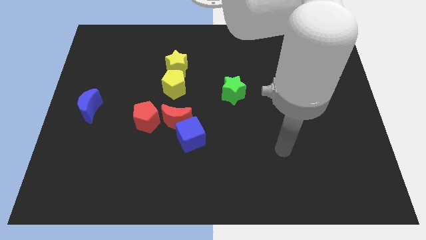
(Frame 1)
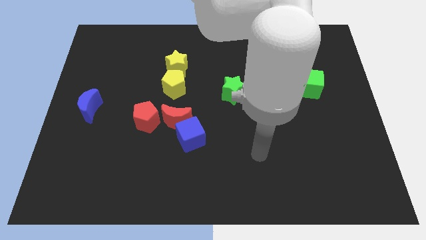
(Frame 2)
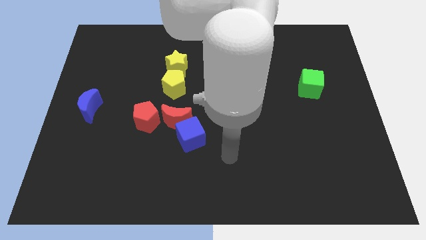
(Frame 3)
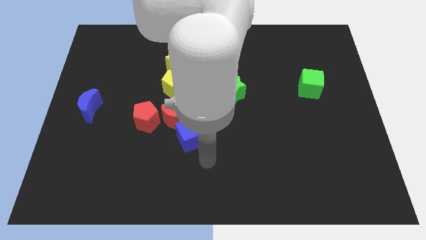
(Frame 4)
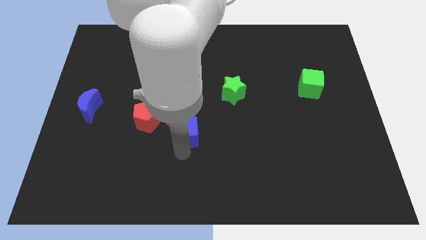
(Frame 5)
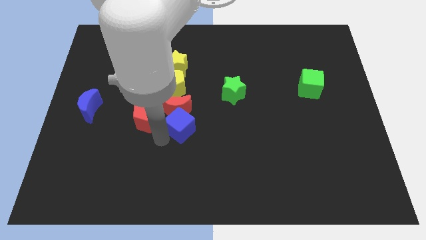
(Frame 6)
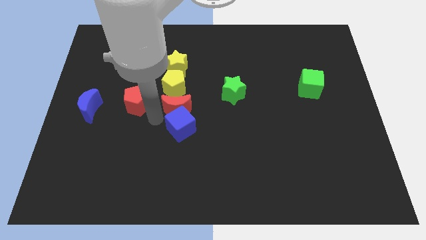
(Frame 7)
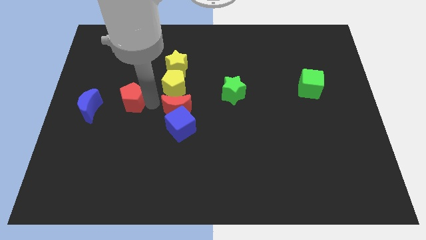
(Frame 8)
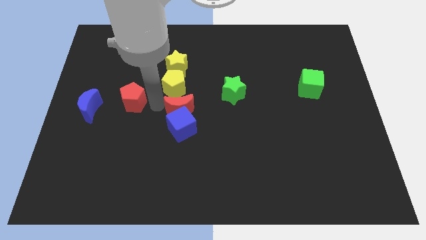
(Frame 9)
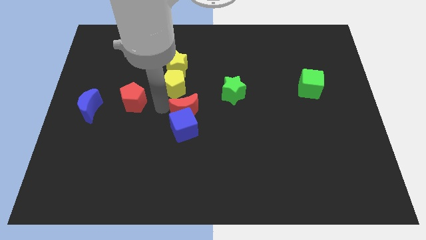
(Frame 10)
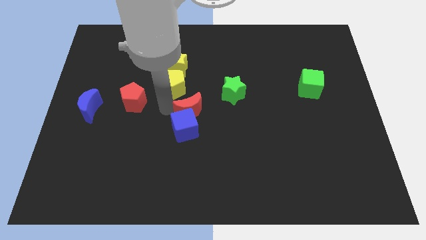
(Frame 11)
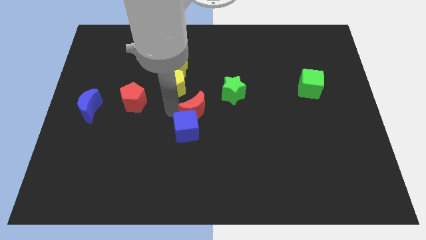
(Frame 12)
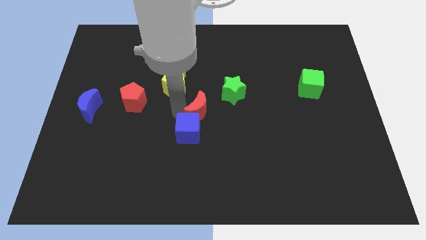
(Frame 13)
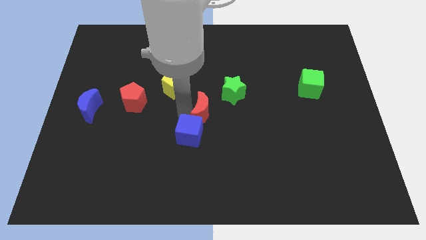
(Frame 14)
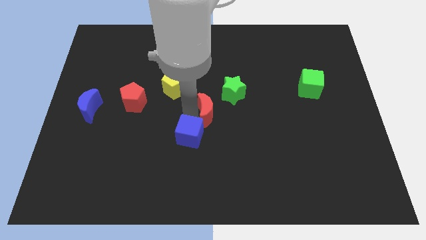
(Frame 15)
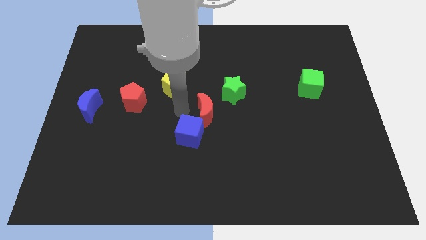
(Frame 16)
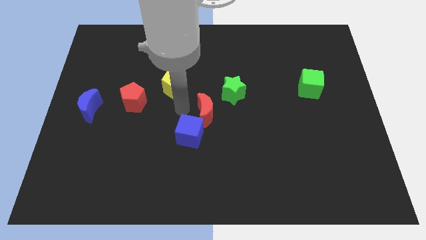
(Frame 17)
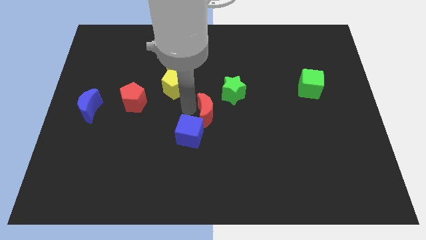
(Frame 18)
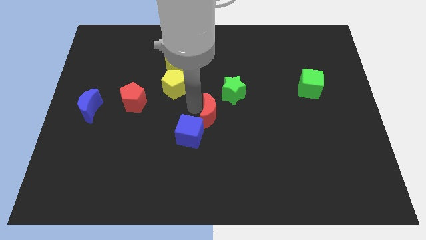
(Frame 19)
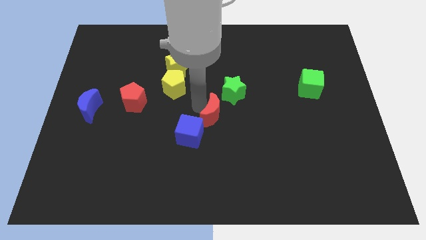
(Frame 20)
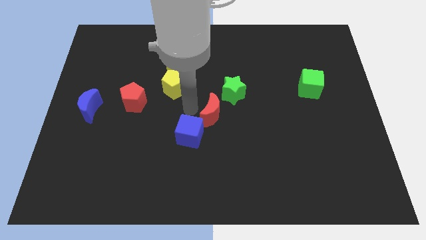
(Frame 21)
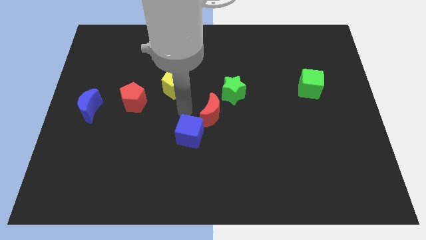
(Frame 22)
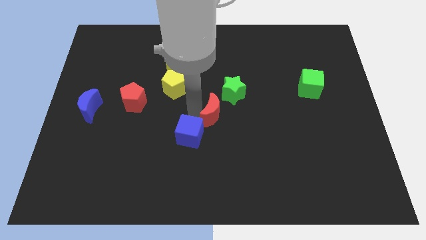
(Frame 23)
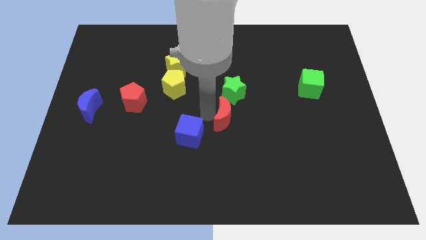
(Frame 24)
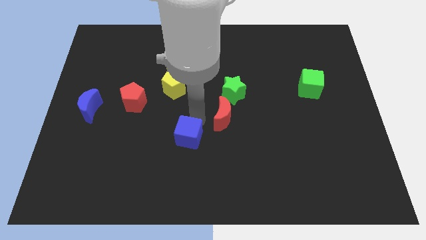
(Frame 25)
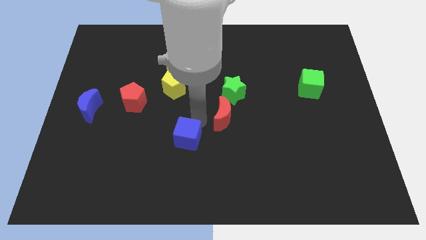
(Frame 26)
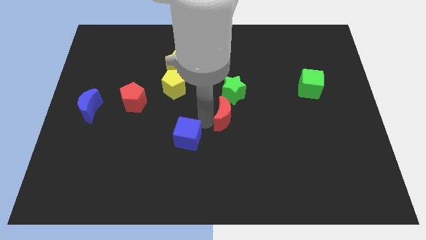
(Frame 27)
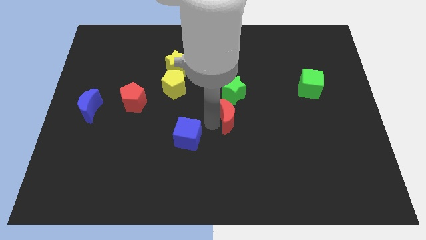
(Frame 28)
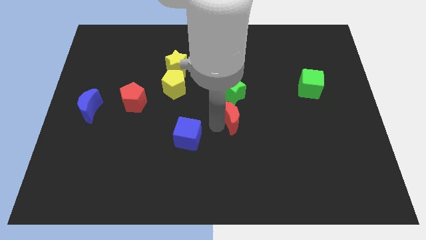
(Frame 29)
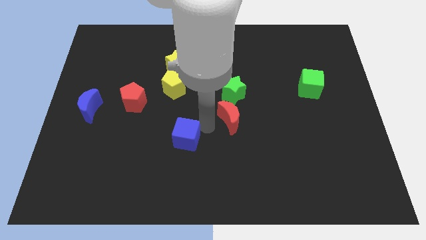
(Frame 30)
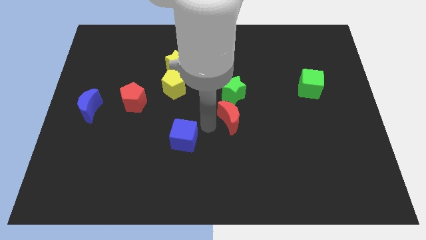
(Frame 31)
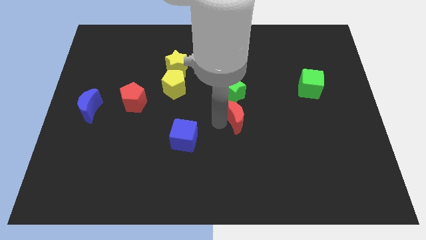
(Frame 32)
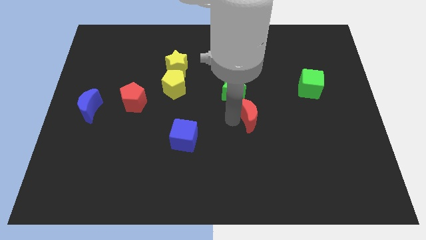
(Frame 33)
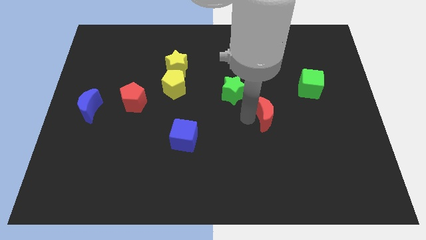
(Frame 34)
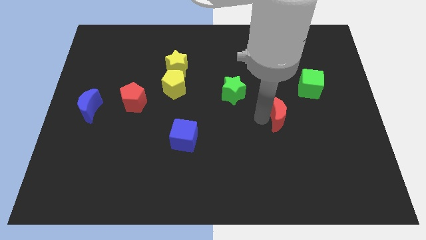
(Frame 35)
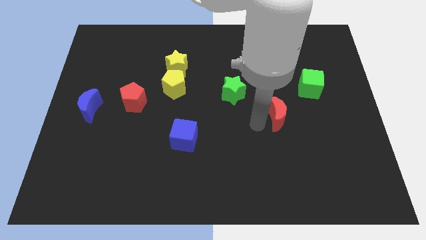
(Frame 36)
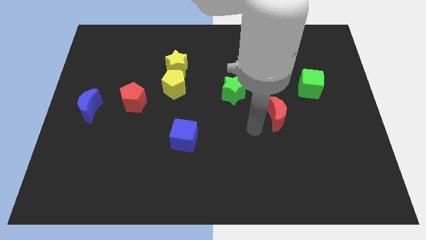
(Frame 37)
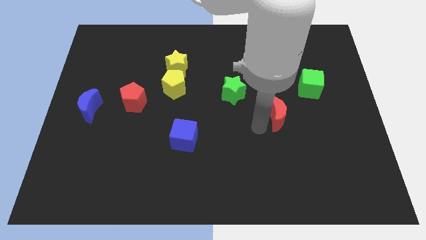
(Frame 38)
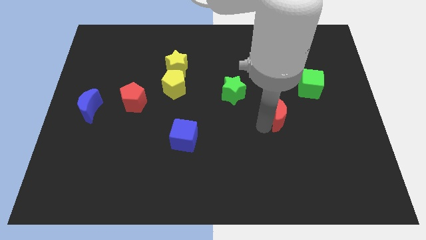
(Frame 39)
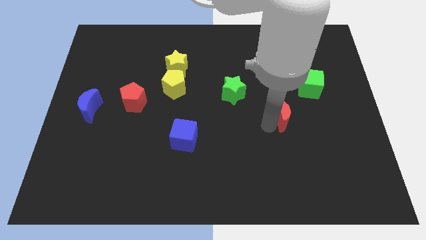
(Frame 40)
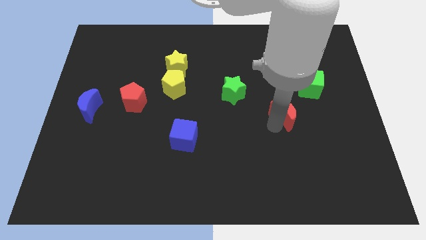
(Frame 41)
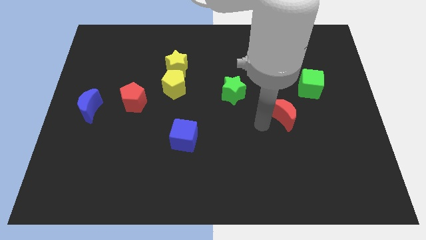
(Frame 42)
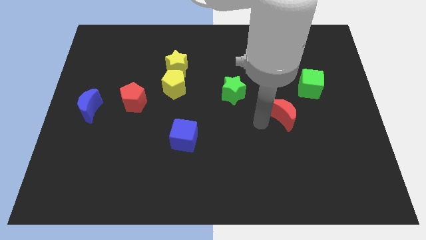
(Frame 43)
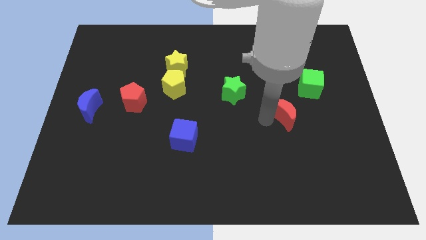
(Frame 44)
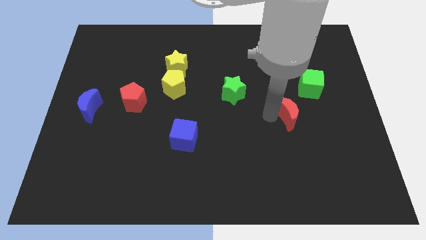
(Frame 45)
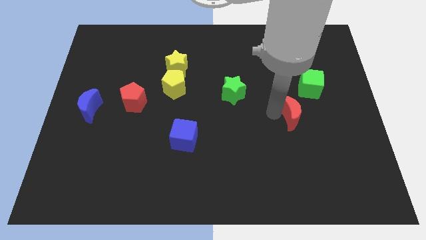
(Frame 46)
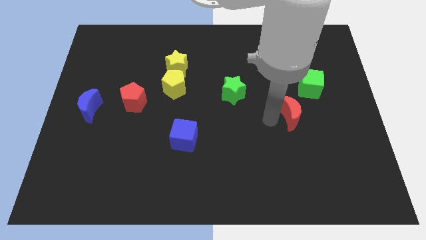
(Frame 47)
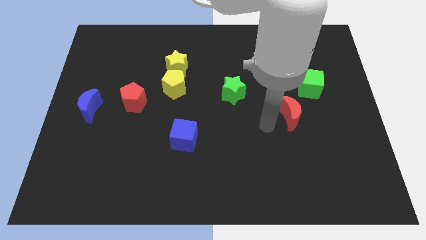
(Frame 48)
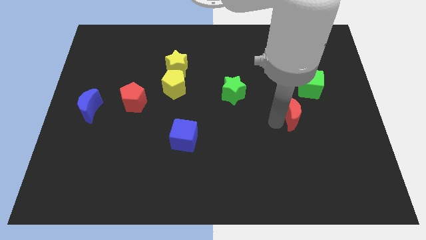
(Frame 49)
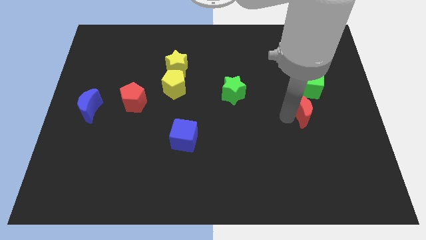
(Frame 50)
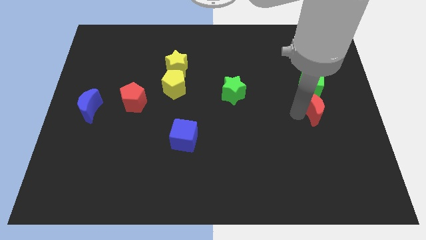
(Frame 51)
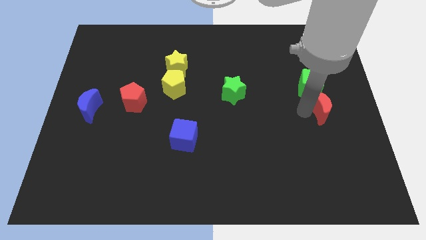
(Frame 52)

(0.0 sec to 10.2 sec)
move the red moon to the center right

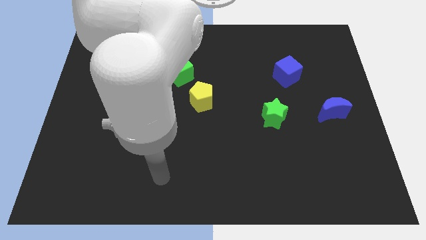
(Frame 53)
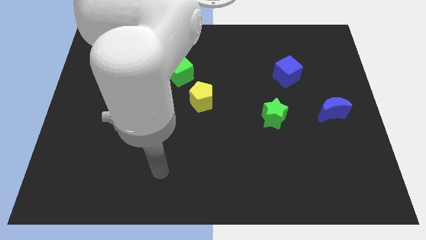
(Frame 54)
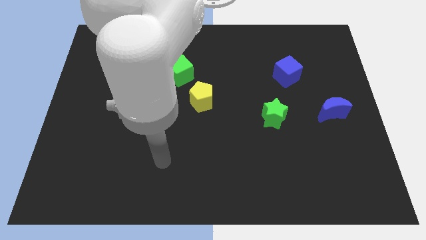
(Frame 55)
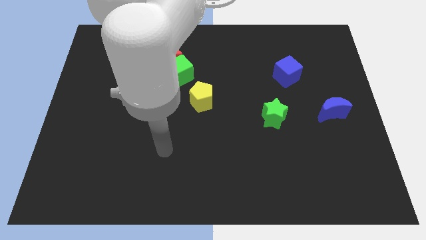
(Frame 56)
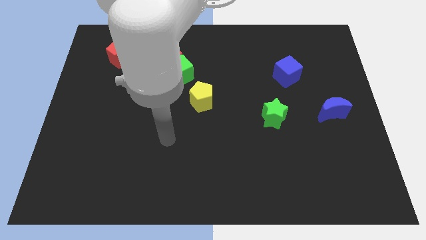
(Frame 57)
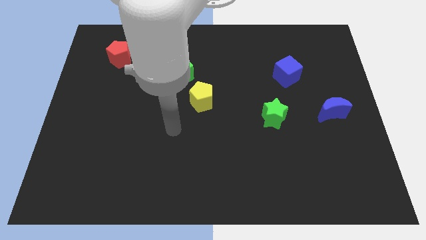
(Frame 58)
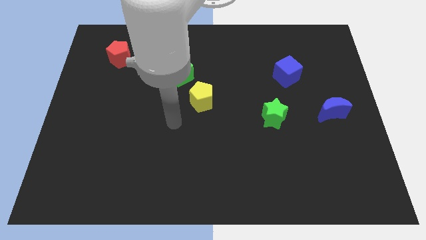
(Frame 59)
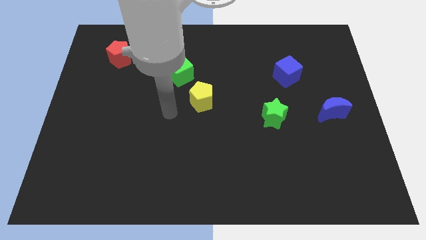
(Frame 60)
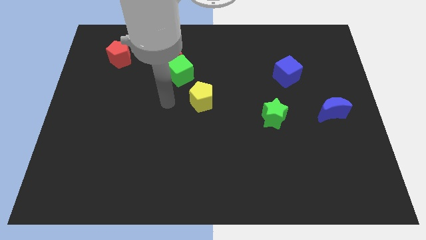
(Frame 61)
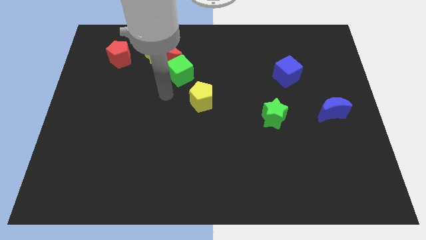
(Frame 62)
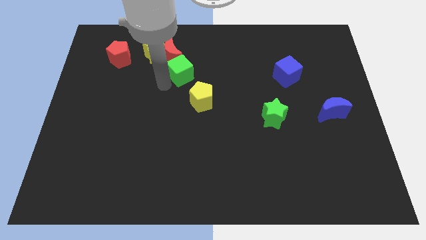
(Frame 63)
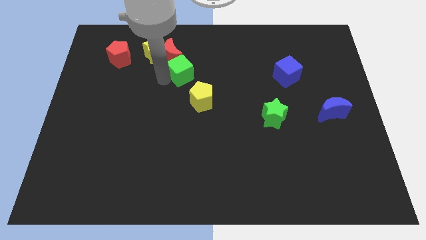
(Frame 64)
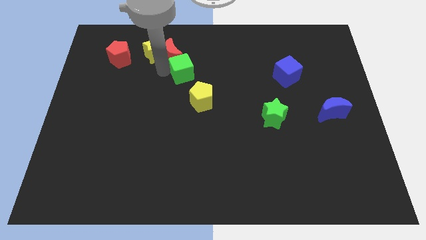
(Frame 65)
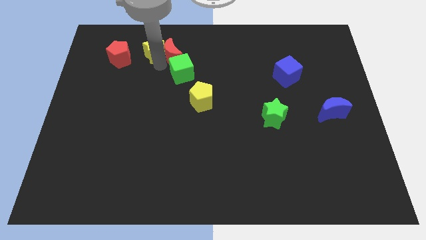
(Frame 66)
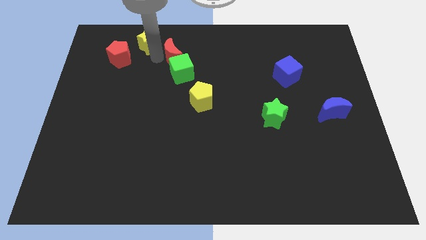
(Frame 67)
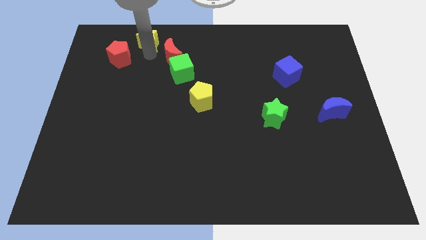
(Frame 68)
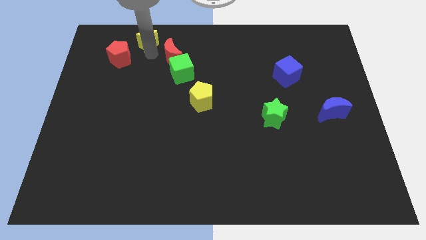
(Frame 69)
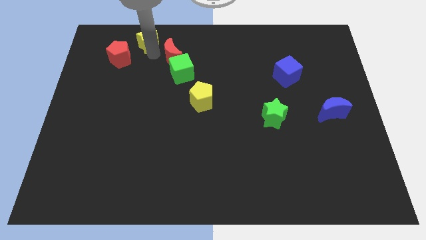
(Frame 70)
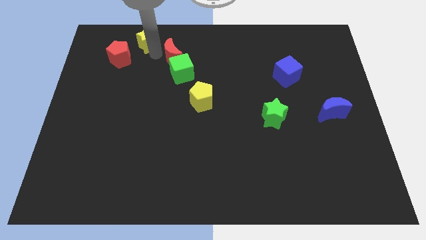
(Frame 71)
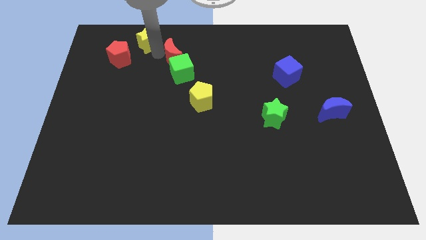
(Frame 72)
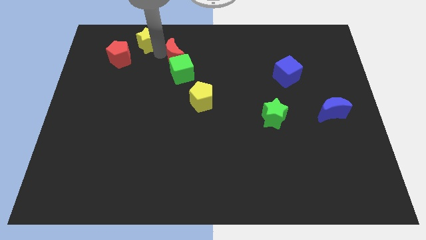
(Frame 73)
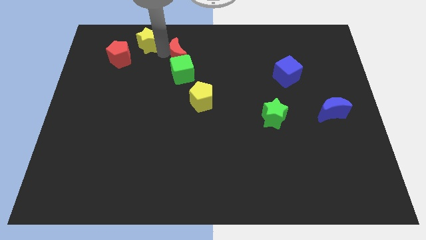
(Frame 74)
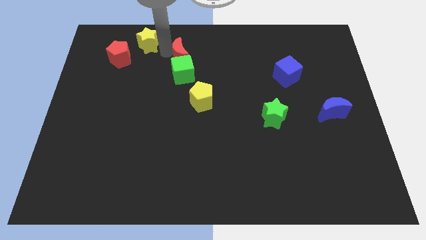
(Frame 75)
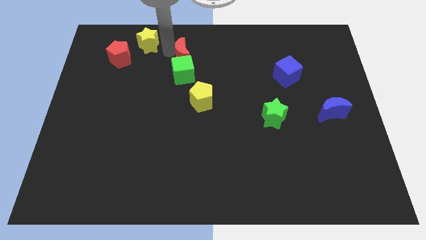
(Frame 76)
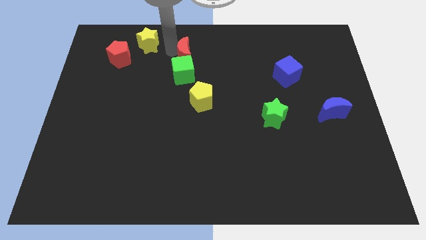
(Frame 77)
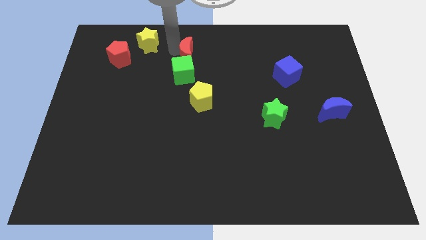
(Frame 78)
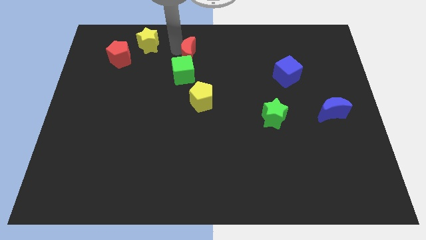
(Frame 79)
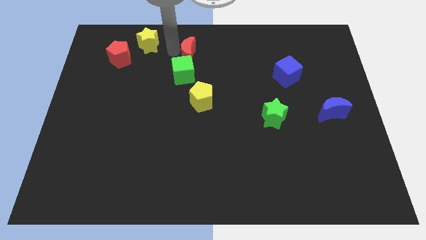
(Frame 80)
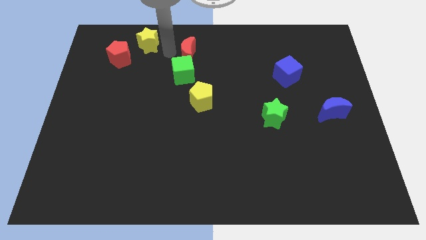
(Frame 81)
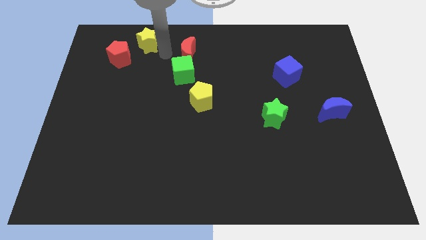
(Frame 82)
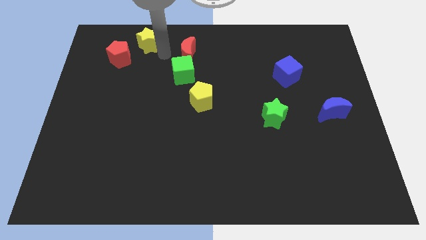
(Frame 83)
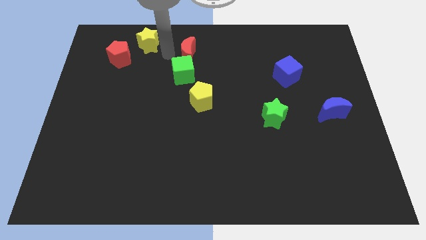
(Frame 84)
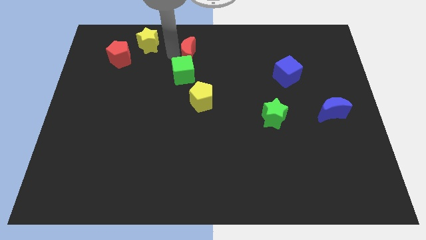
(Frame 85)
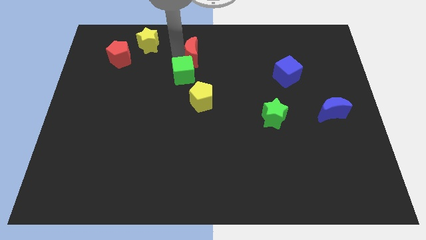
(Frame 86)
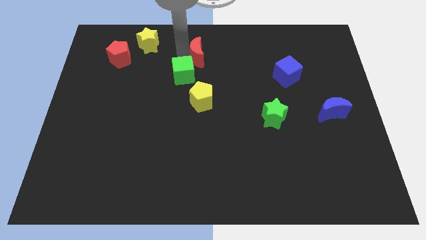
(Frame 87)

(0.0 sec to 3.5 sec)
slide the red moon to the towards your base
